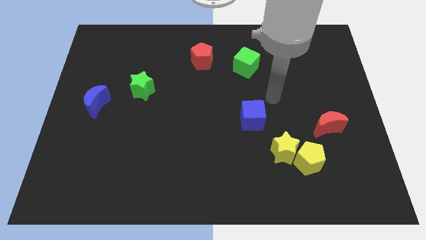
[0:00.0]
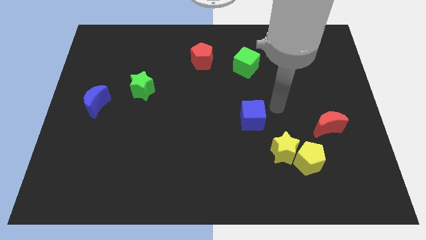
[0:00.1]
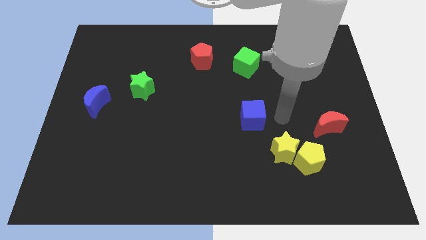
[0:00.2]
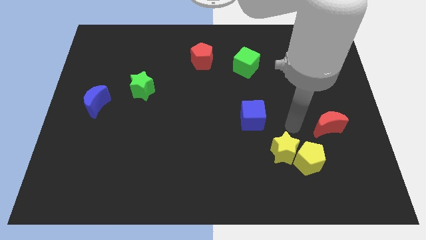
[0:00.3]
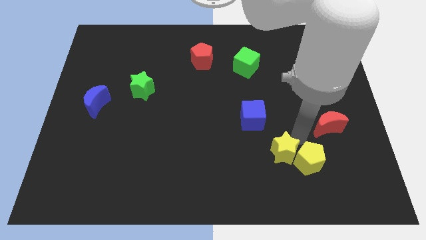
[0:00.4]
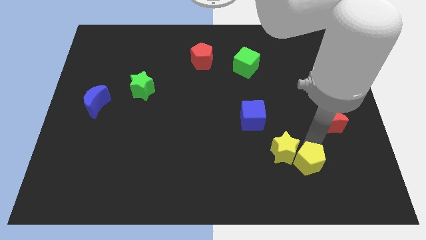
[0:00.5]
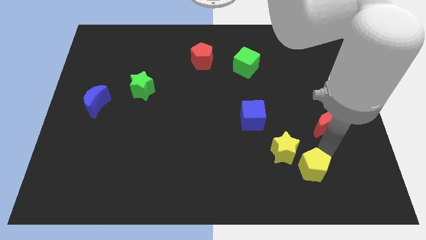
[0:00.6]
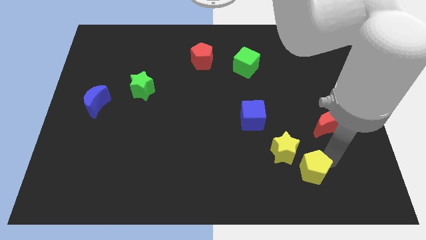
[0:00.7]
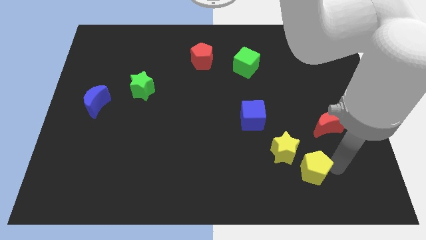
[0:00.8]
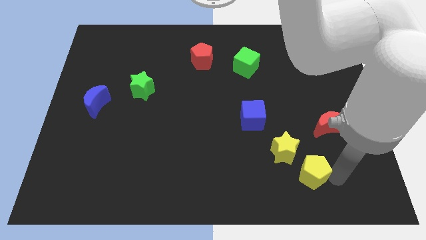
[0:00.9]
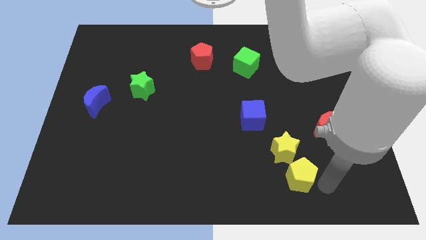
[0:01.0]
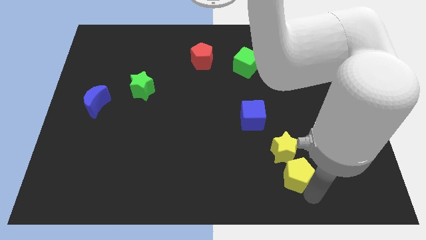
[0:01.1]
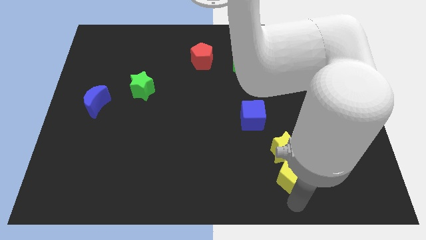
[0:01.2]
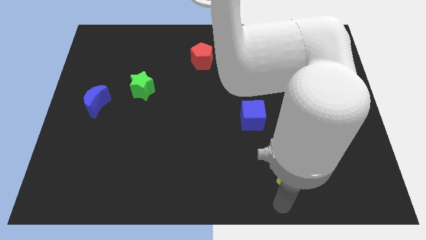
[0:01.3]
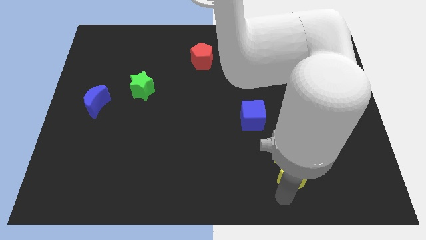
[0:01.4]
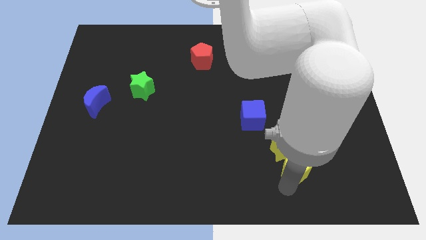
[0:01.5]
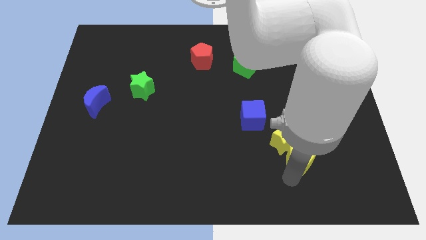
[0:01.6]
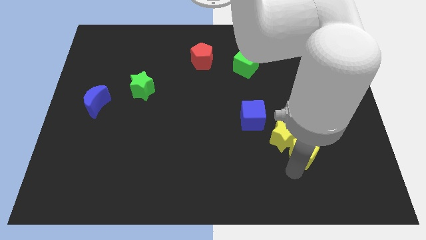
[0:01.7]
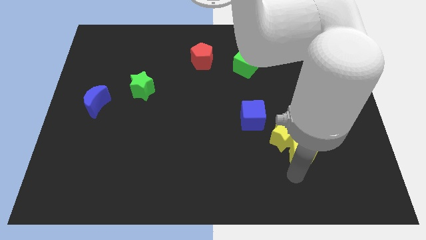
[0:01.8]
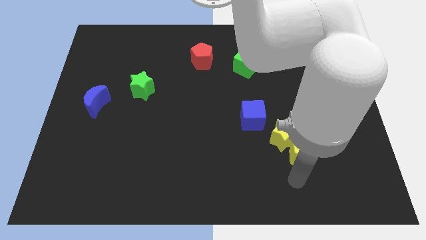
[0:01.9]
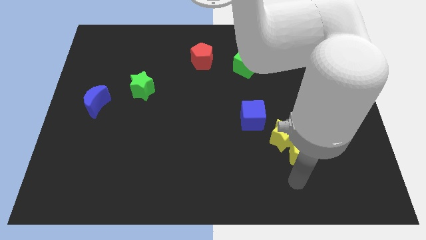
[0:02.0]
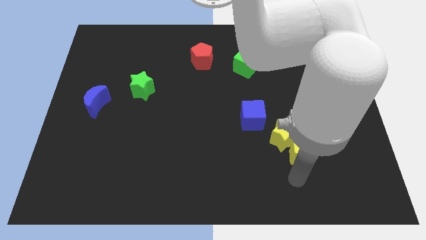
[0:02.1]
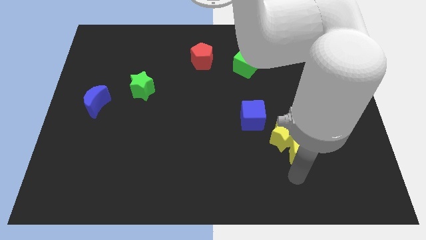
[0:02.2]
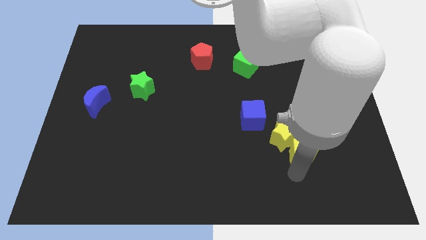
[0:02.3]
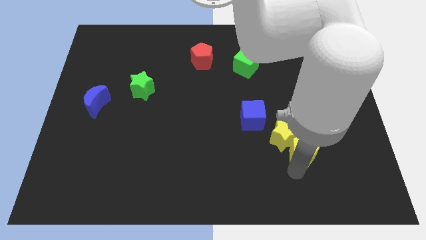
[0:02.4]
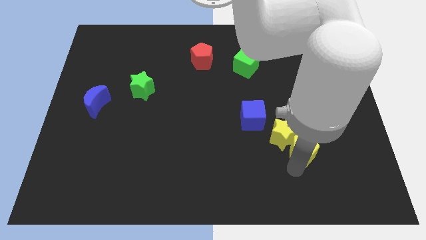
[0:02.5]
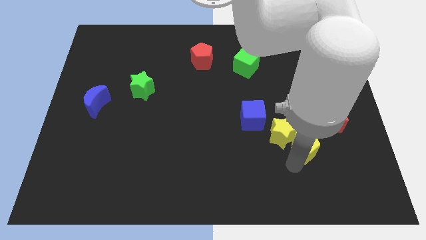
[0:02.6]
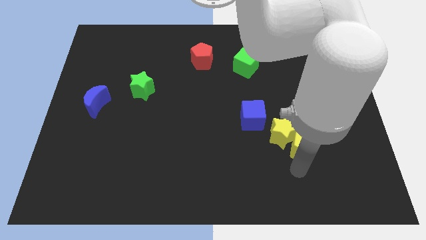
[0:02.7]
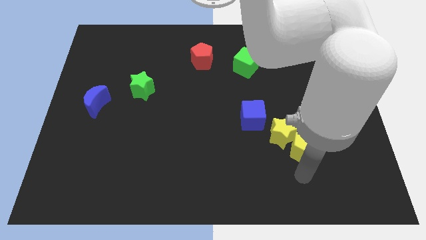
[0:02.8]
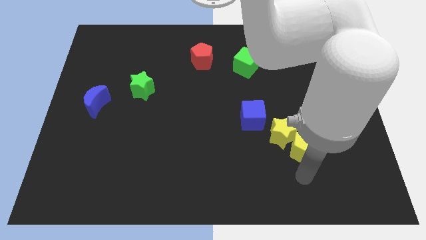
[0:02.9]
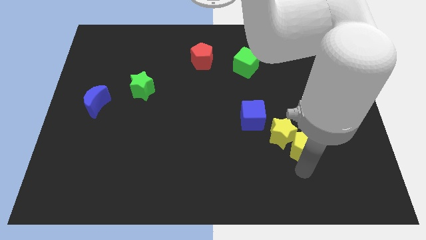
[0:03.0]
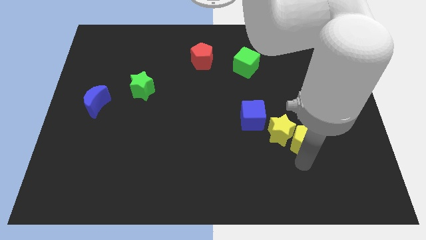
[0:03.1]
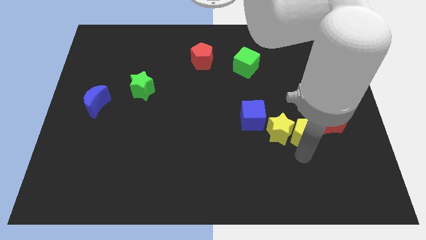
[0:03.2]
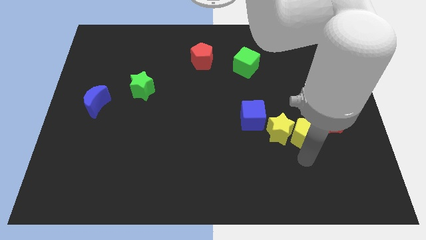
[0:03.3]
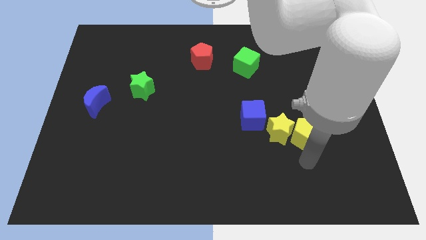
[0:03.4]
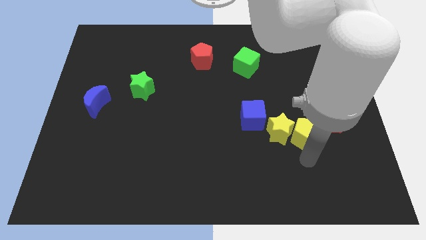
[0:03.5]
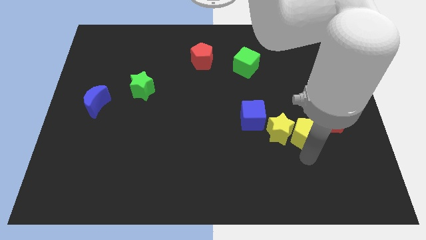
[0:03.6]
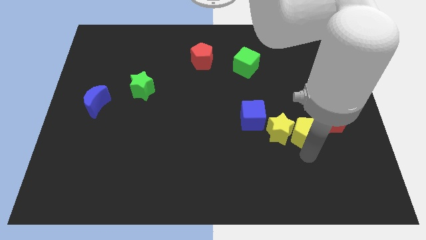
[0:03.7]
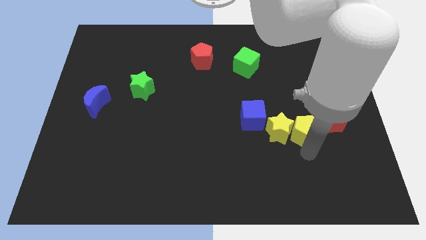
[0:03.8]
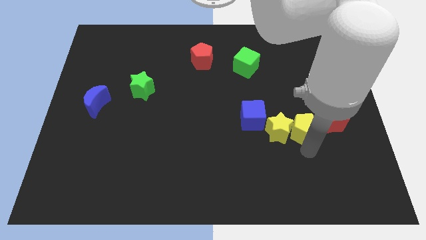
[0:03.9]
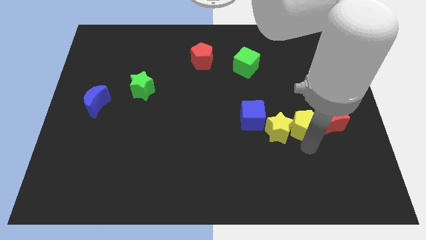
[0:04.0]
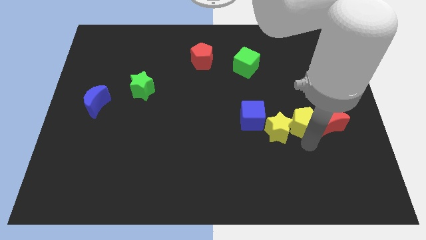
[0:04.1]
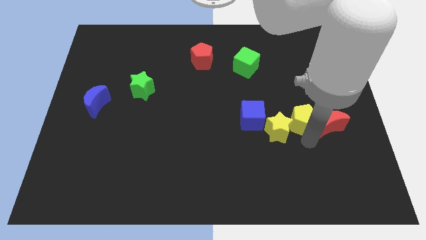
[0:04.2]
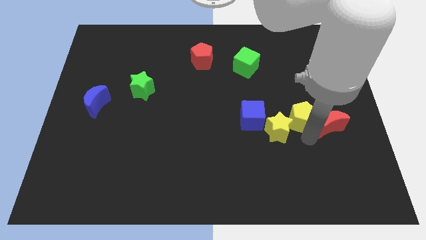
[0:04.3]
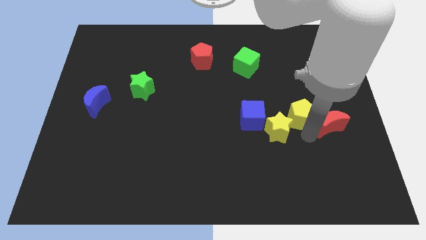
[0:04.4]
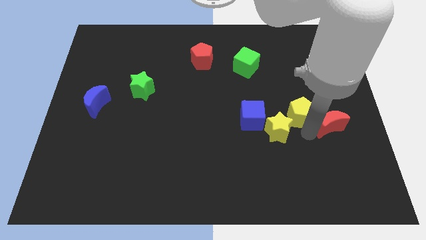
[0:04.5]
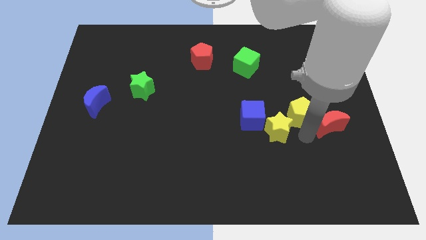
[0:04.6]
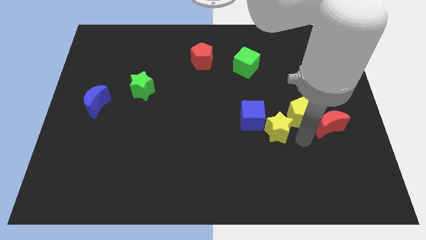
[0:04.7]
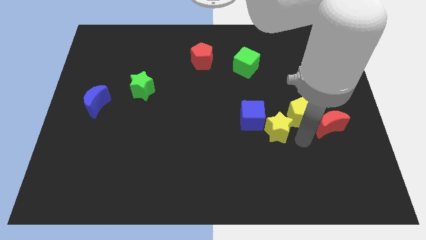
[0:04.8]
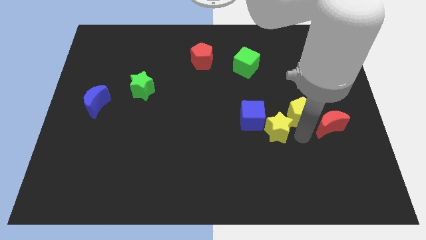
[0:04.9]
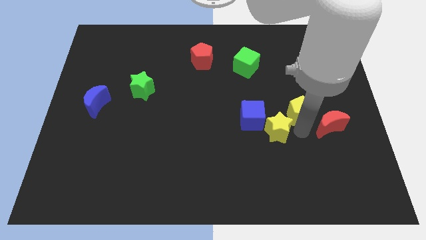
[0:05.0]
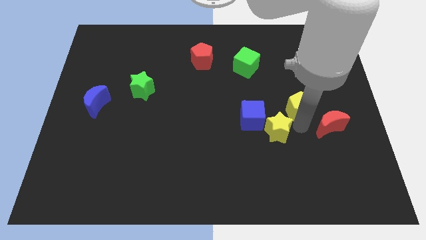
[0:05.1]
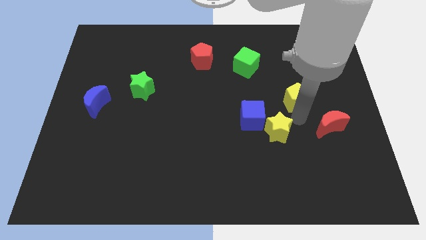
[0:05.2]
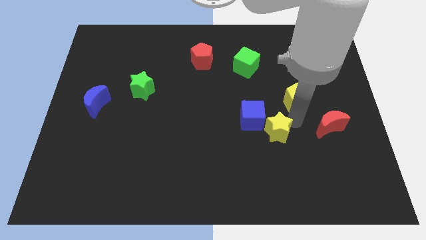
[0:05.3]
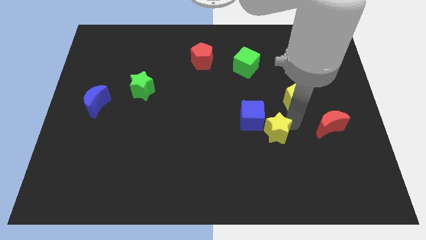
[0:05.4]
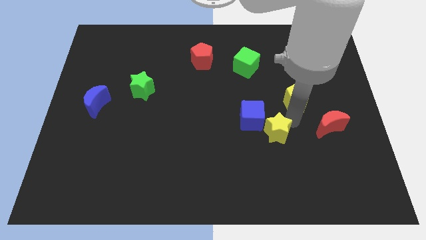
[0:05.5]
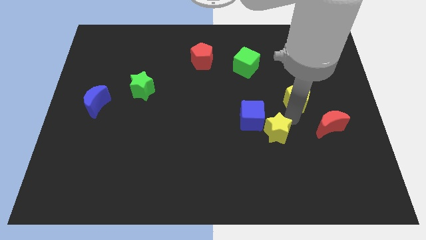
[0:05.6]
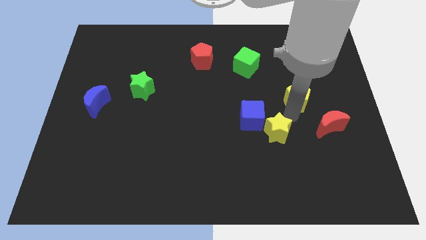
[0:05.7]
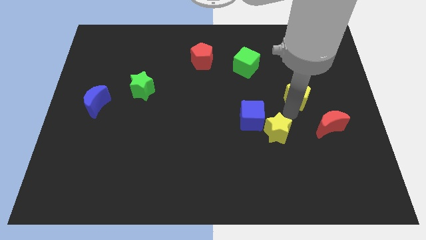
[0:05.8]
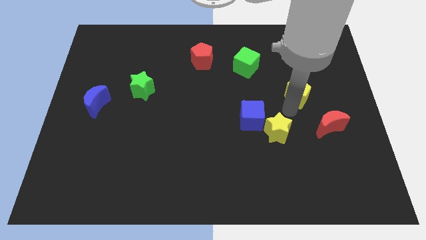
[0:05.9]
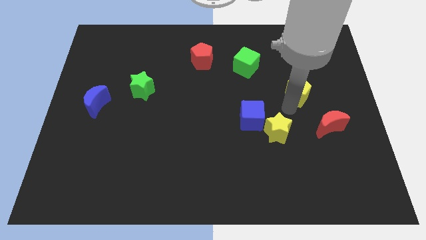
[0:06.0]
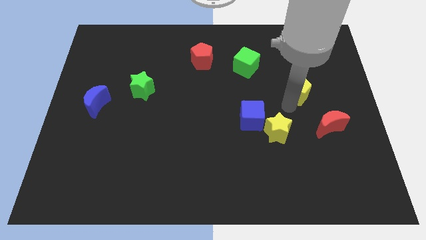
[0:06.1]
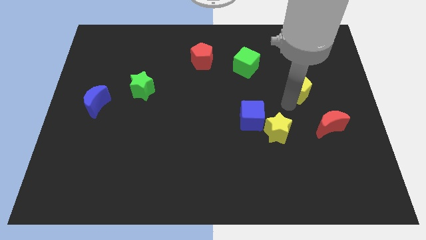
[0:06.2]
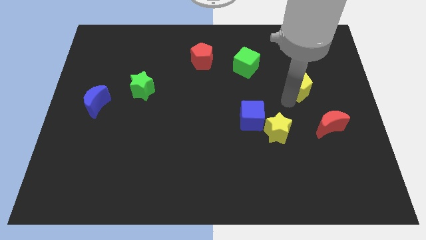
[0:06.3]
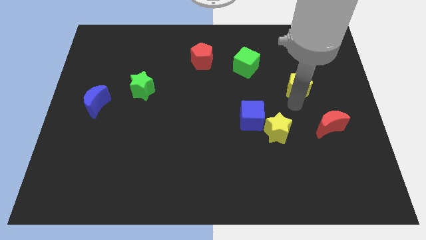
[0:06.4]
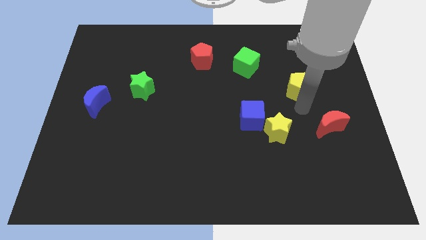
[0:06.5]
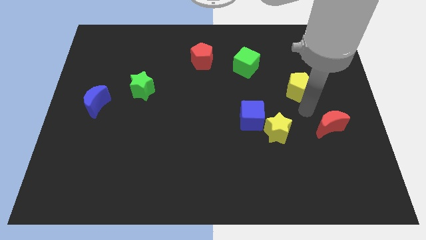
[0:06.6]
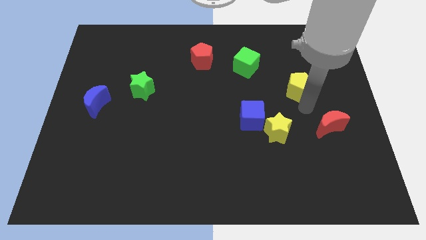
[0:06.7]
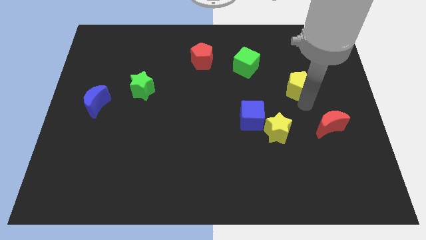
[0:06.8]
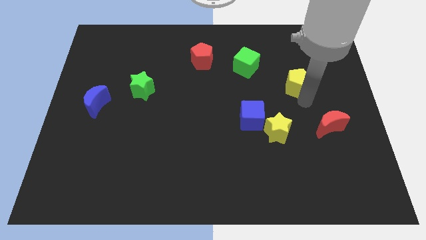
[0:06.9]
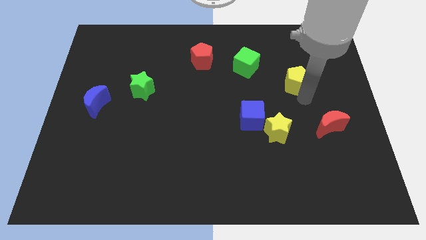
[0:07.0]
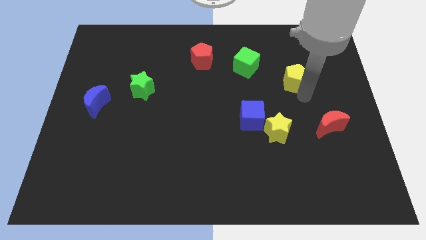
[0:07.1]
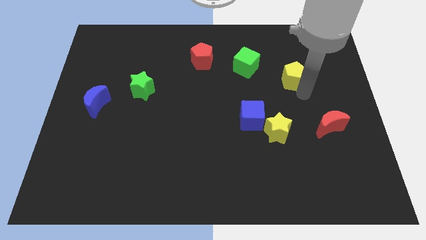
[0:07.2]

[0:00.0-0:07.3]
move the yellow pentagon to the right of the green cube
